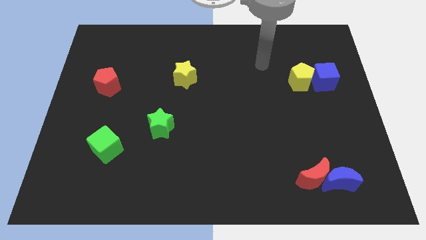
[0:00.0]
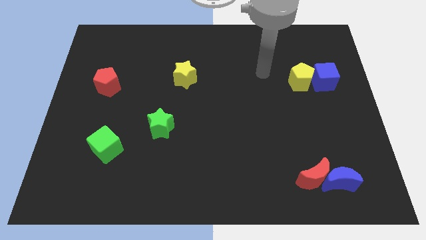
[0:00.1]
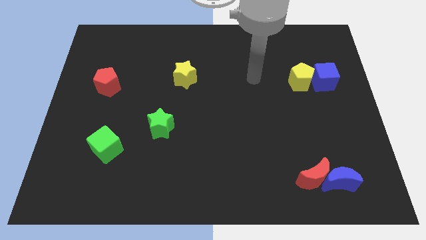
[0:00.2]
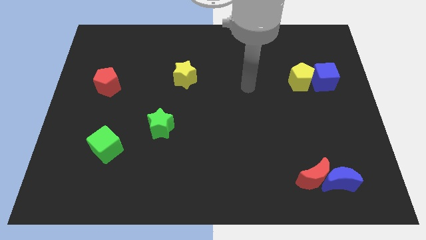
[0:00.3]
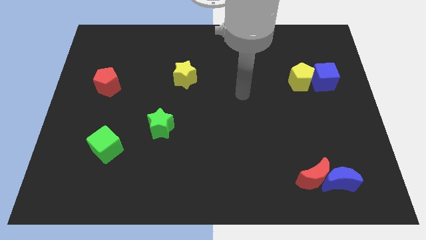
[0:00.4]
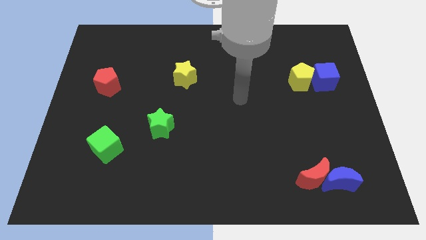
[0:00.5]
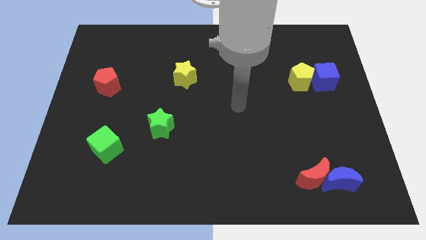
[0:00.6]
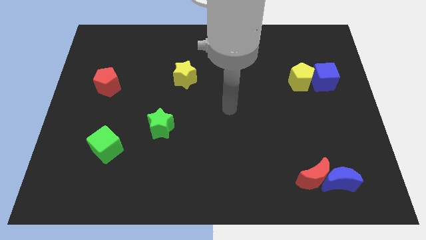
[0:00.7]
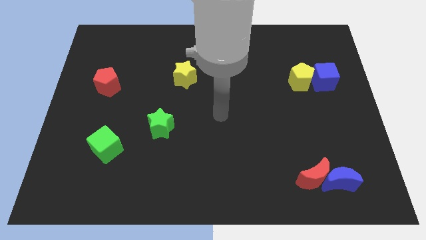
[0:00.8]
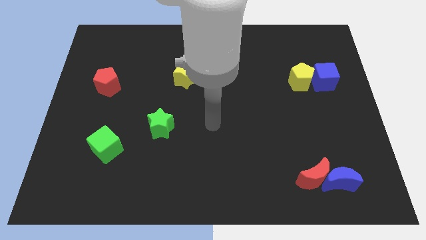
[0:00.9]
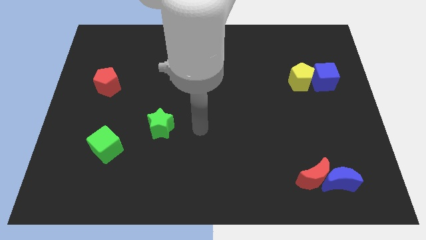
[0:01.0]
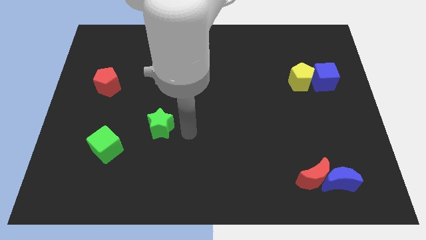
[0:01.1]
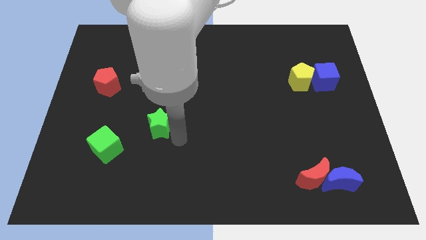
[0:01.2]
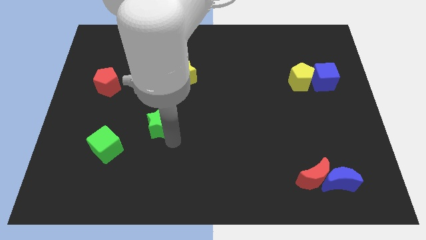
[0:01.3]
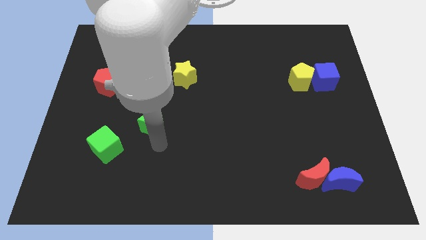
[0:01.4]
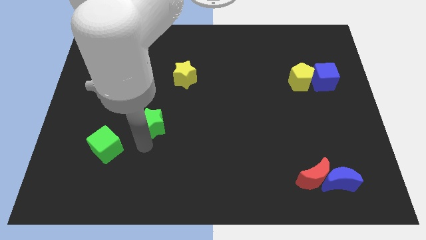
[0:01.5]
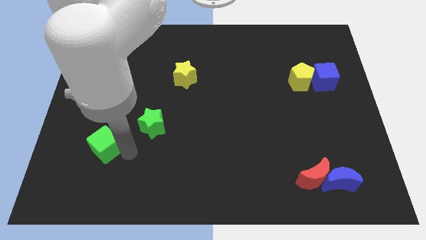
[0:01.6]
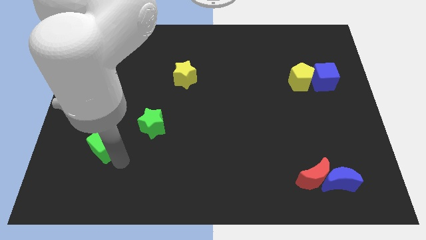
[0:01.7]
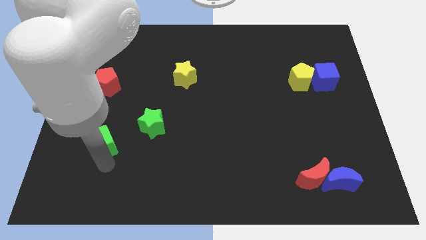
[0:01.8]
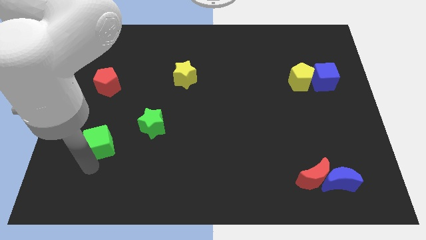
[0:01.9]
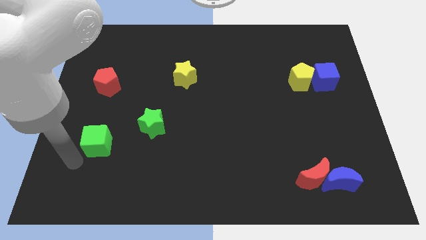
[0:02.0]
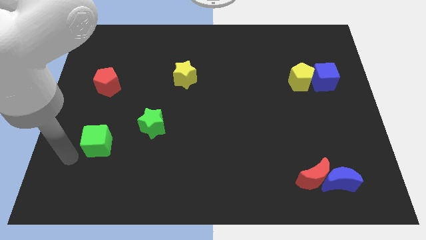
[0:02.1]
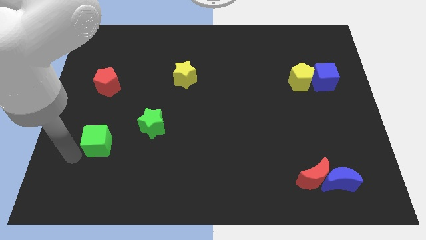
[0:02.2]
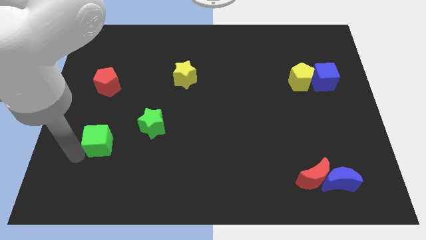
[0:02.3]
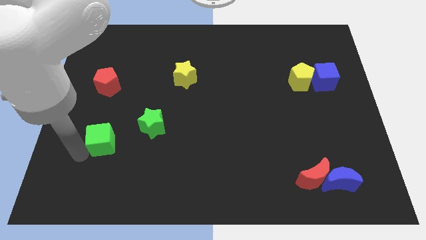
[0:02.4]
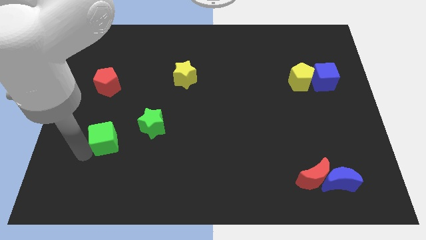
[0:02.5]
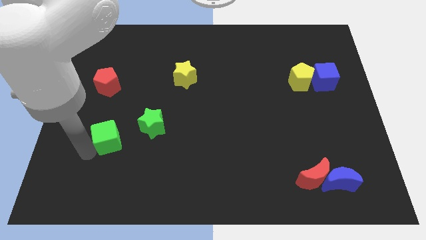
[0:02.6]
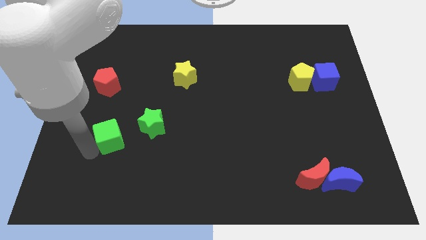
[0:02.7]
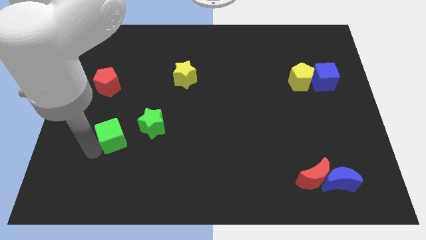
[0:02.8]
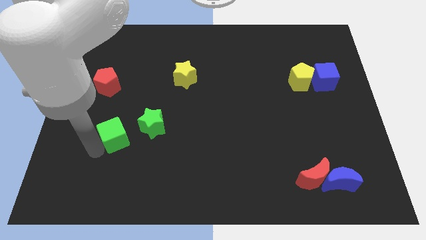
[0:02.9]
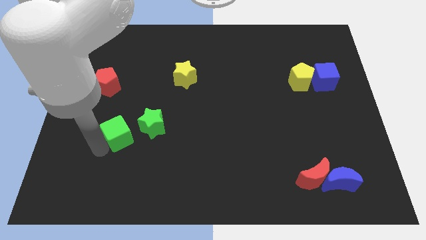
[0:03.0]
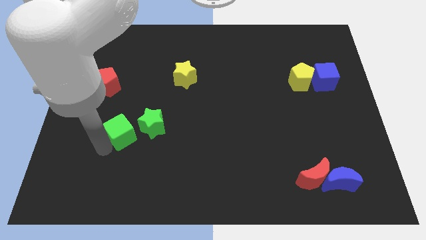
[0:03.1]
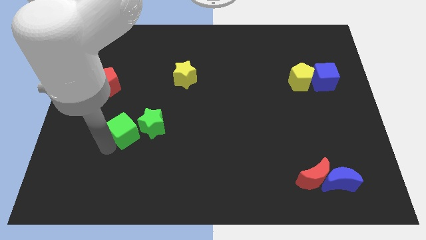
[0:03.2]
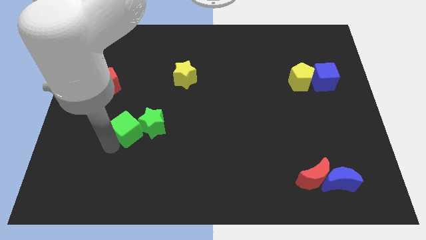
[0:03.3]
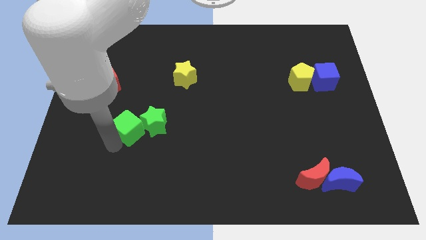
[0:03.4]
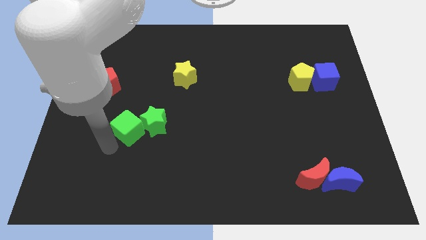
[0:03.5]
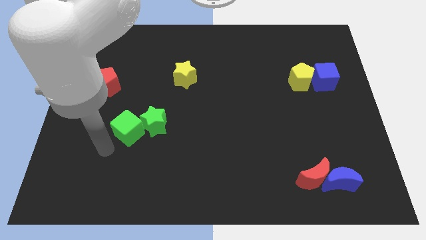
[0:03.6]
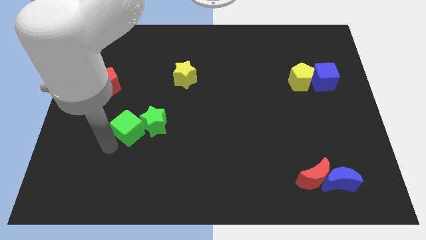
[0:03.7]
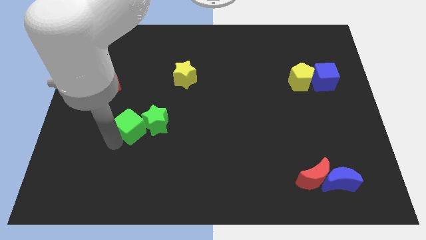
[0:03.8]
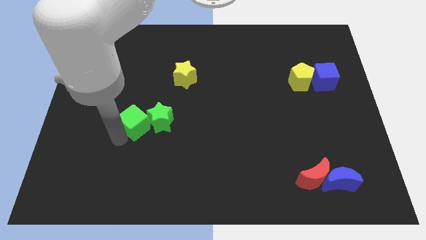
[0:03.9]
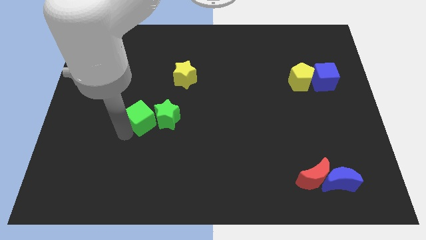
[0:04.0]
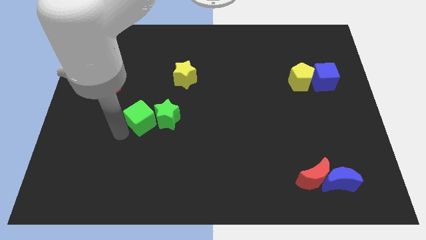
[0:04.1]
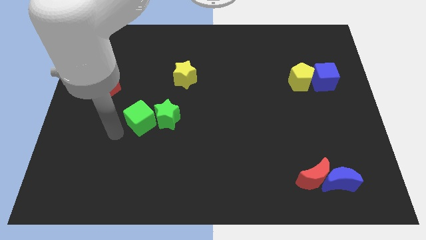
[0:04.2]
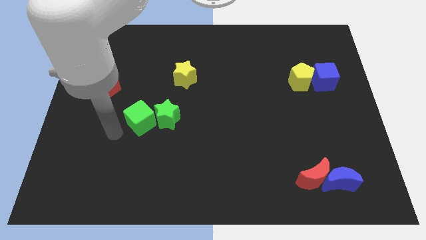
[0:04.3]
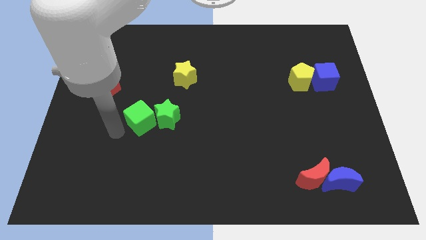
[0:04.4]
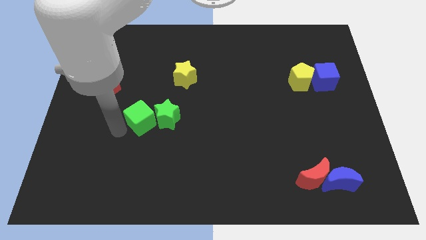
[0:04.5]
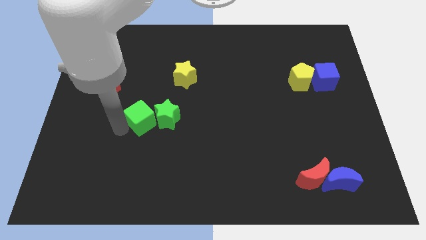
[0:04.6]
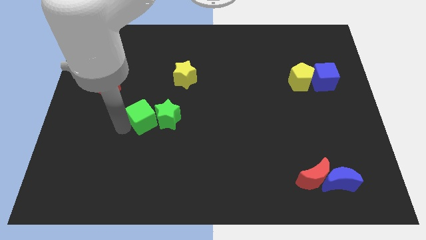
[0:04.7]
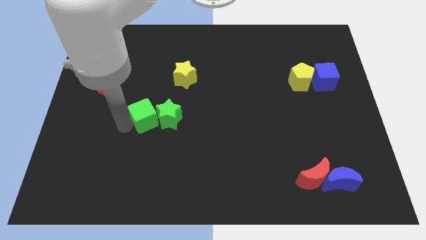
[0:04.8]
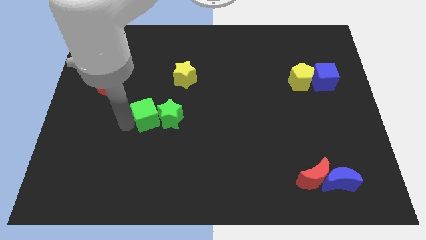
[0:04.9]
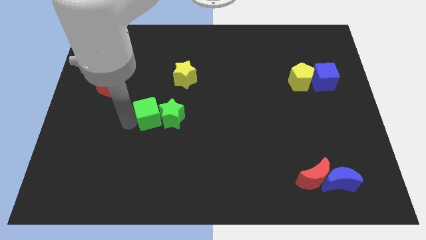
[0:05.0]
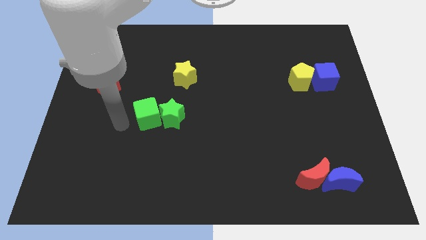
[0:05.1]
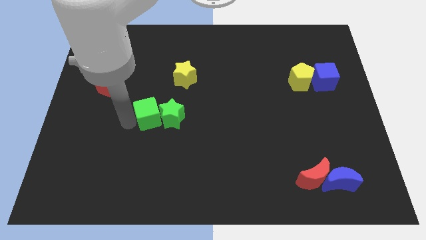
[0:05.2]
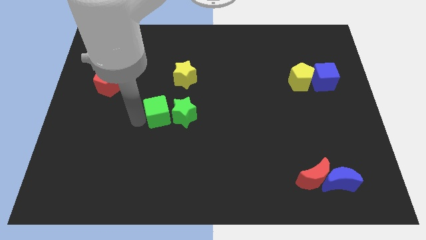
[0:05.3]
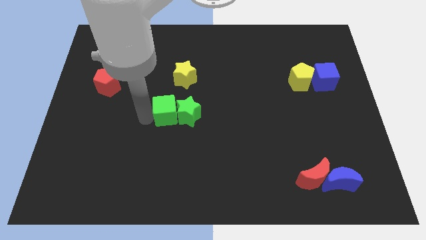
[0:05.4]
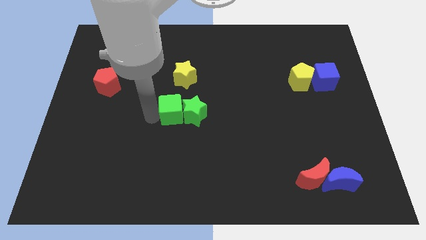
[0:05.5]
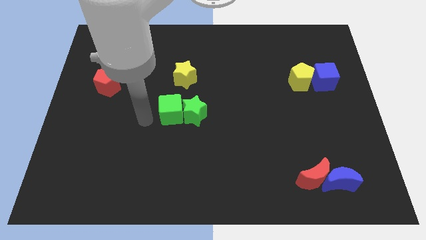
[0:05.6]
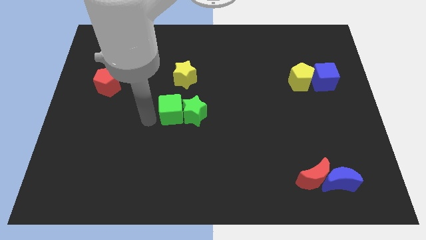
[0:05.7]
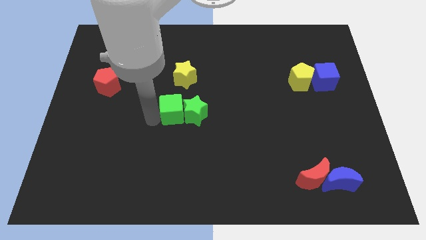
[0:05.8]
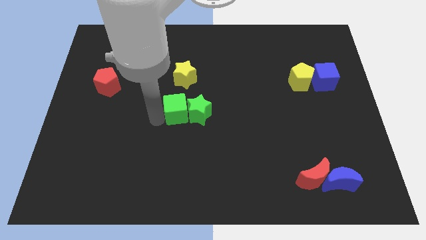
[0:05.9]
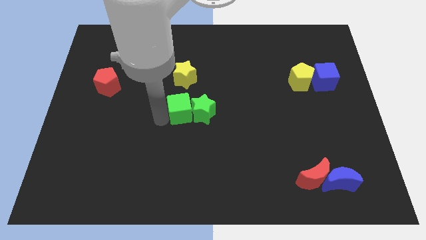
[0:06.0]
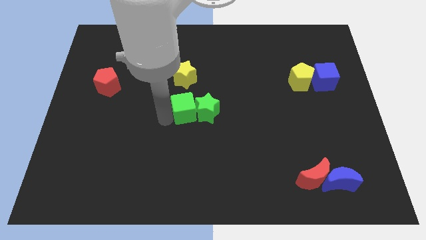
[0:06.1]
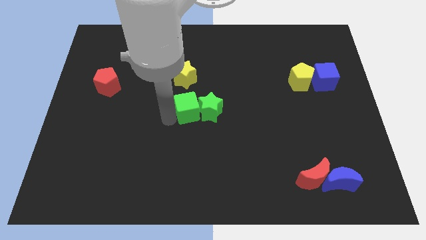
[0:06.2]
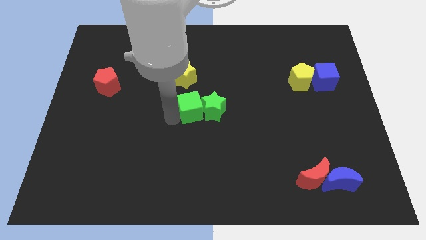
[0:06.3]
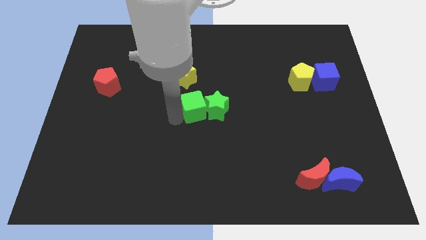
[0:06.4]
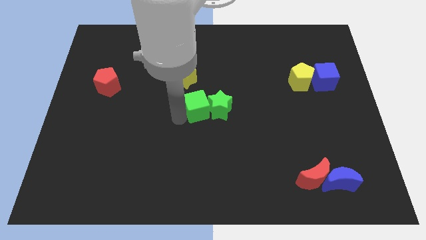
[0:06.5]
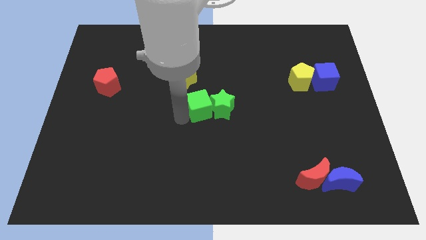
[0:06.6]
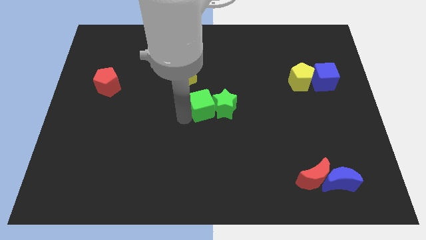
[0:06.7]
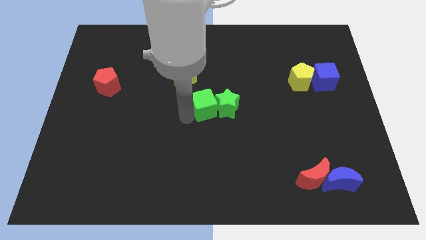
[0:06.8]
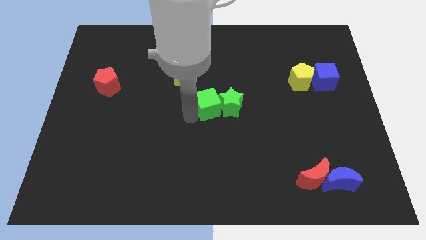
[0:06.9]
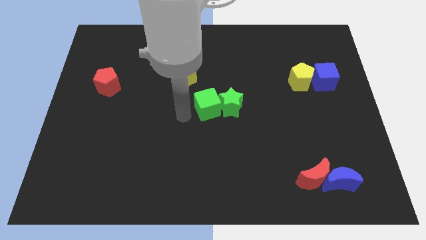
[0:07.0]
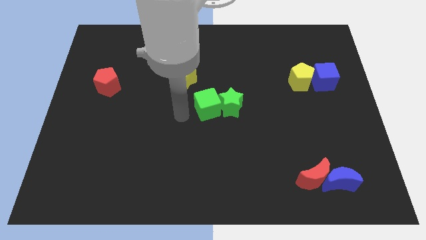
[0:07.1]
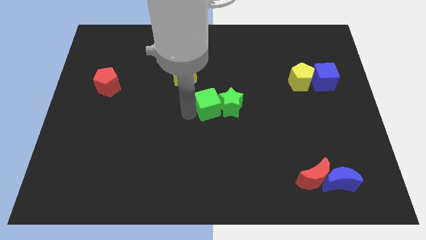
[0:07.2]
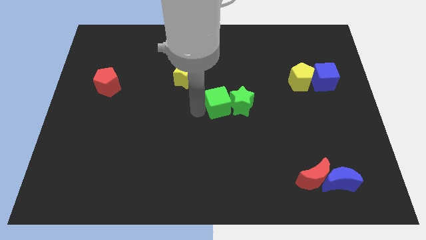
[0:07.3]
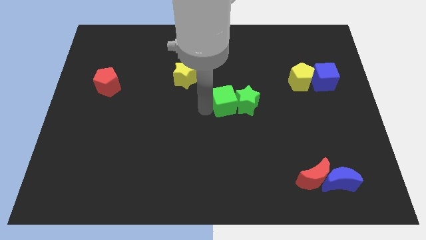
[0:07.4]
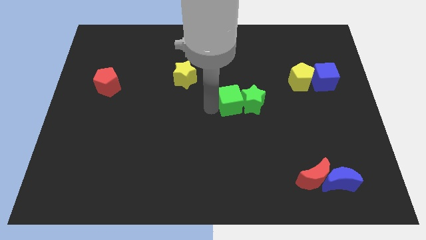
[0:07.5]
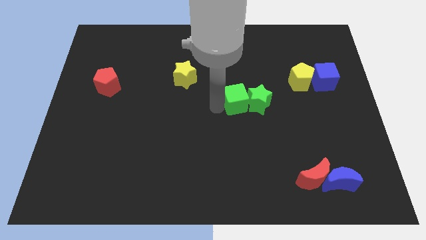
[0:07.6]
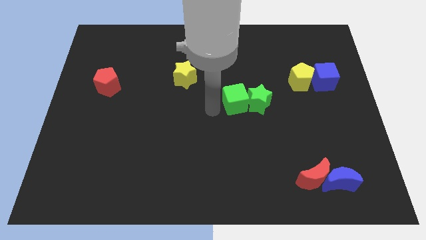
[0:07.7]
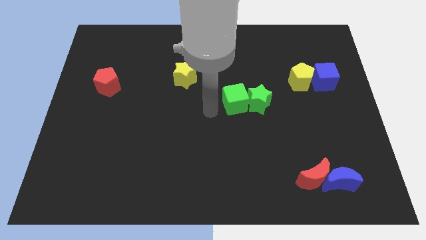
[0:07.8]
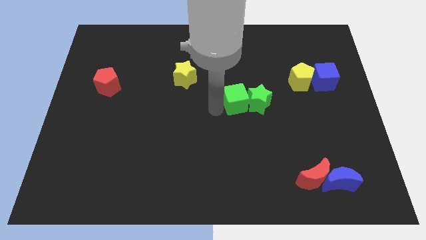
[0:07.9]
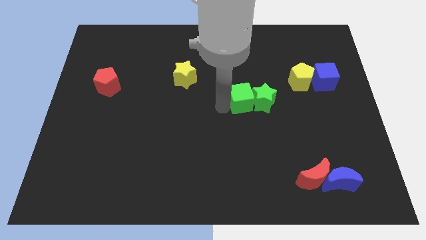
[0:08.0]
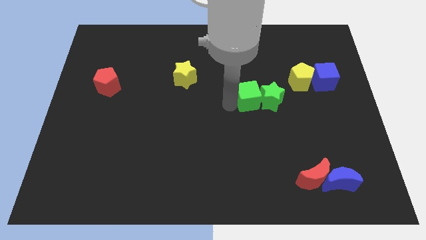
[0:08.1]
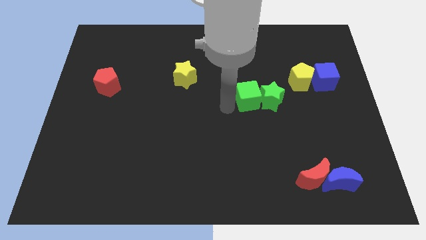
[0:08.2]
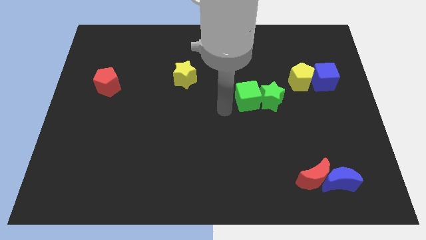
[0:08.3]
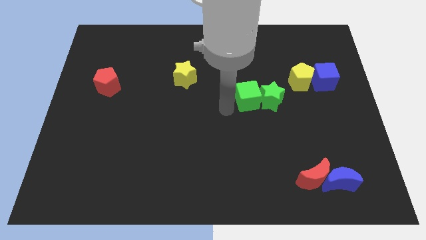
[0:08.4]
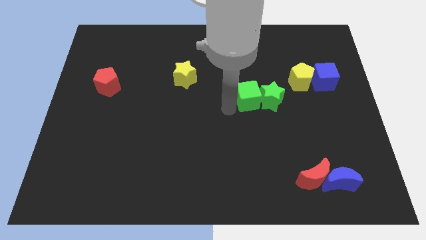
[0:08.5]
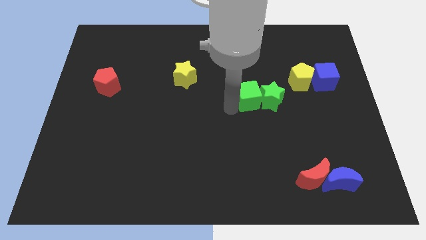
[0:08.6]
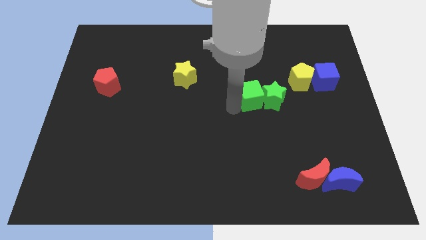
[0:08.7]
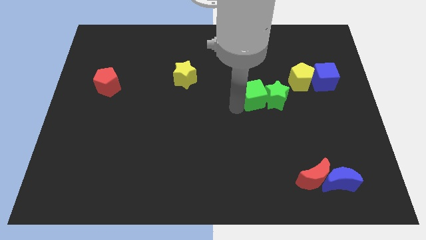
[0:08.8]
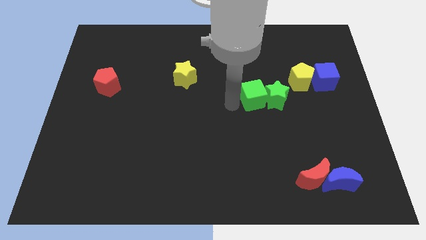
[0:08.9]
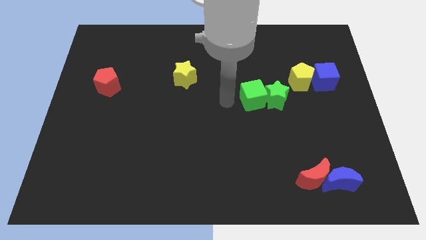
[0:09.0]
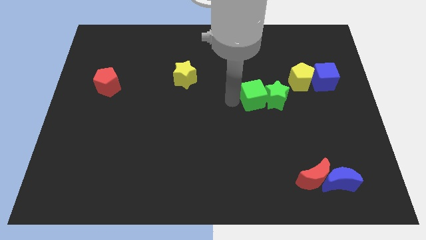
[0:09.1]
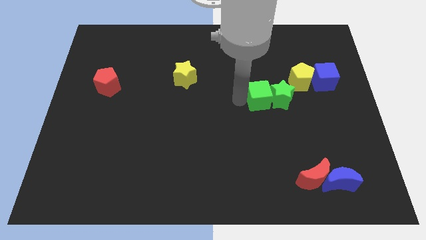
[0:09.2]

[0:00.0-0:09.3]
put the green cube to the bottom left side of the yellow pentagon

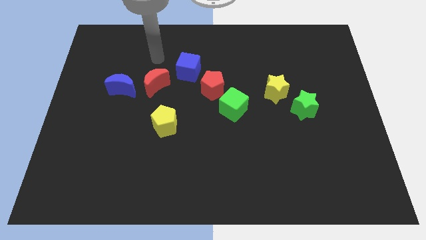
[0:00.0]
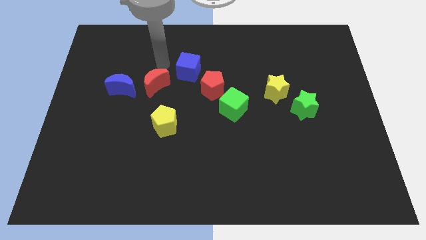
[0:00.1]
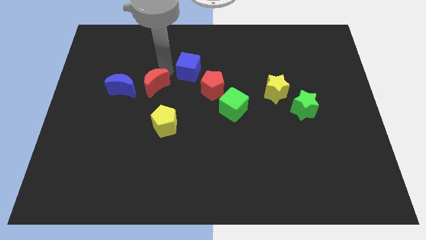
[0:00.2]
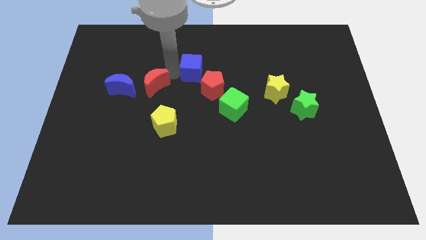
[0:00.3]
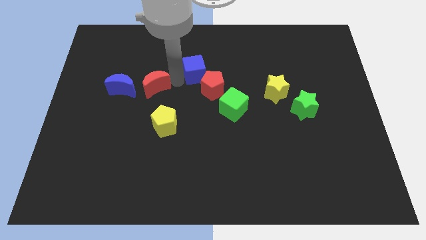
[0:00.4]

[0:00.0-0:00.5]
put the red pentagon to the right side of the blue cube
